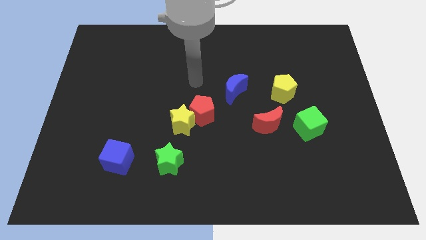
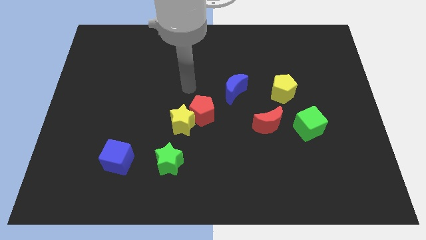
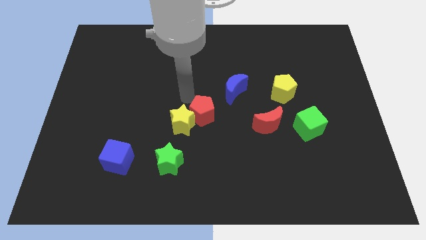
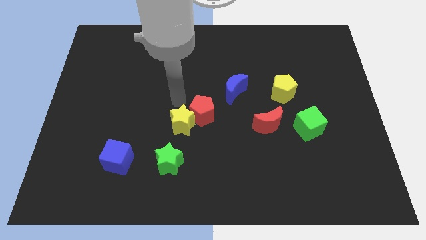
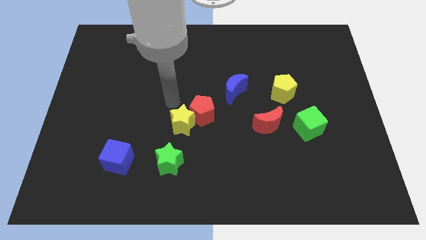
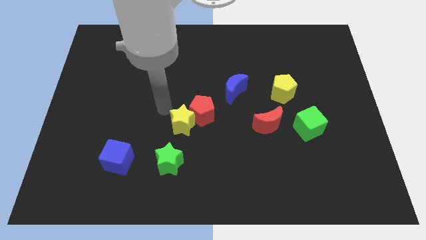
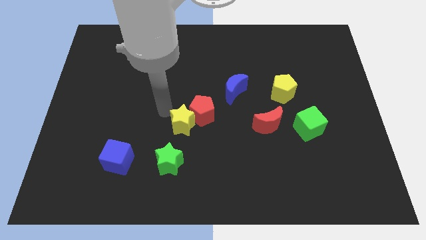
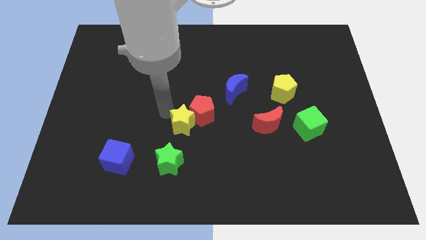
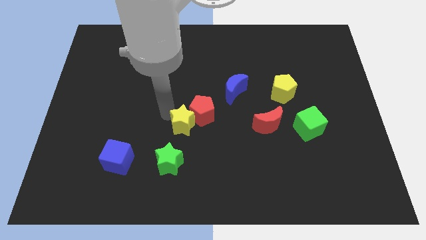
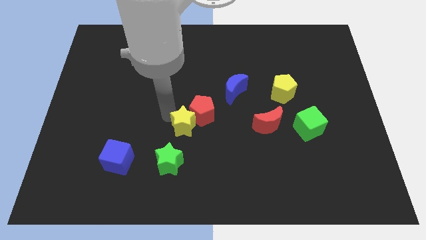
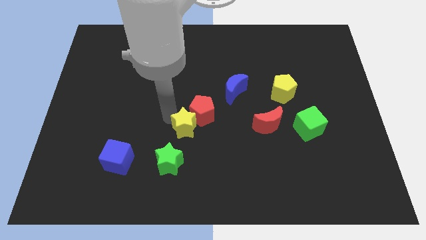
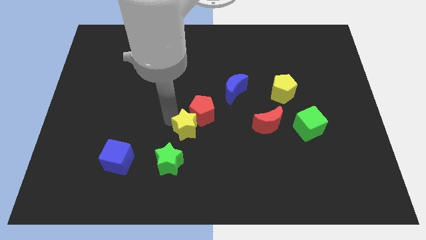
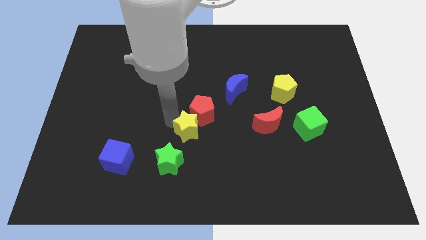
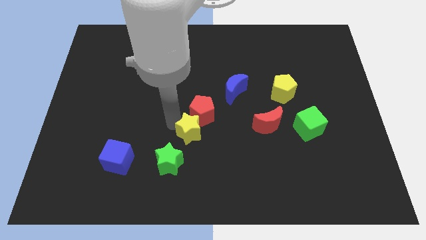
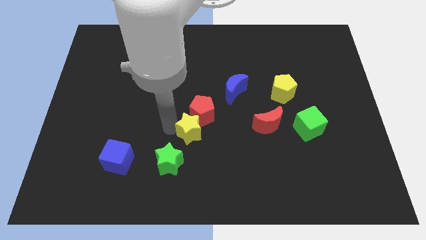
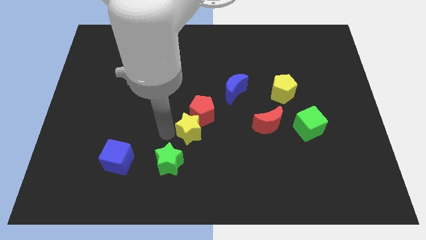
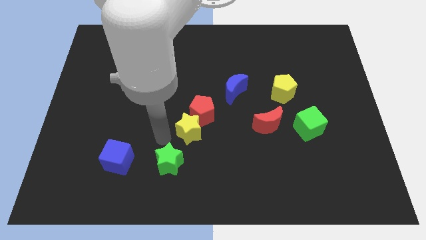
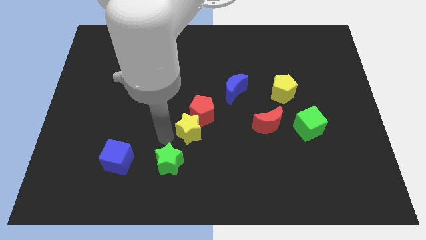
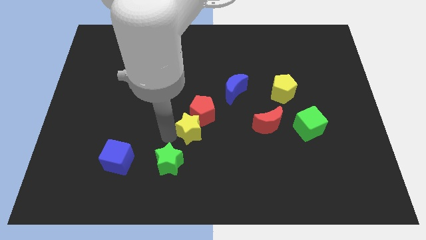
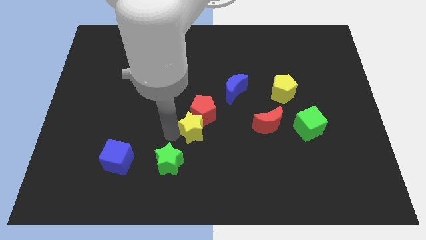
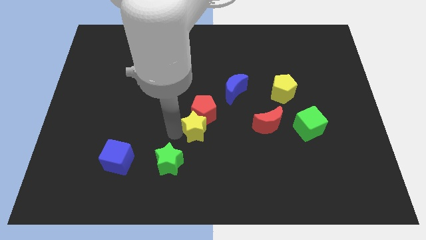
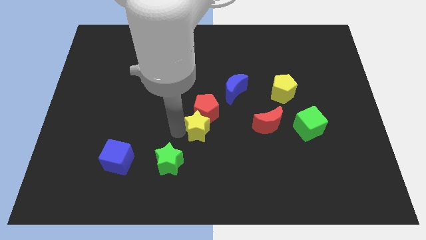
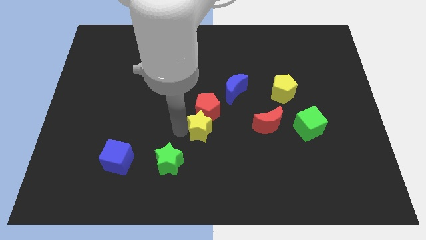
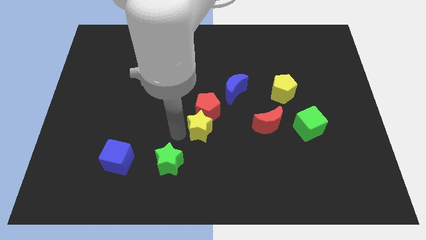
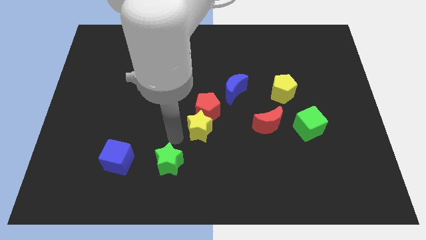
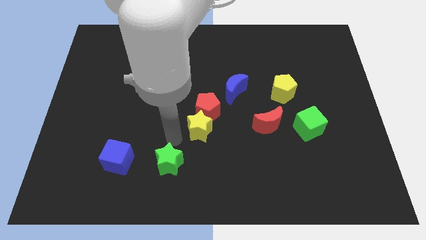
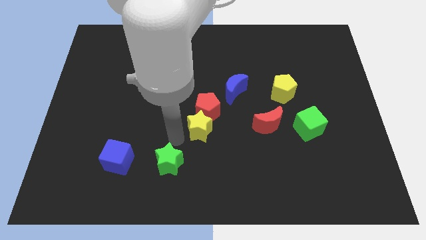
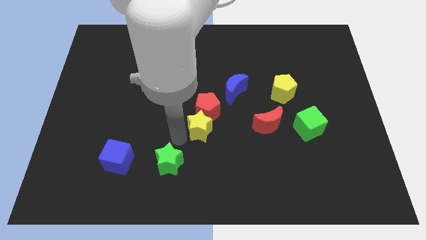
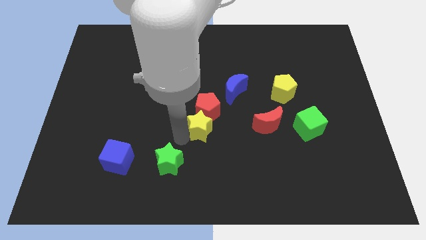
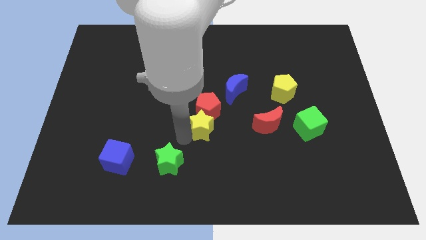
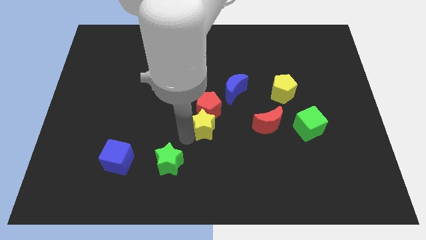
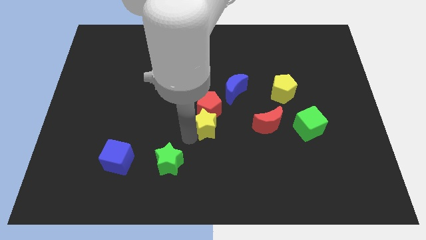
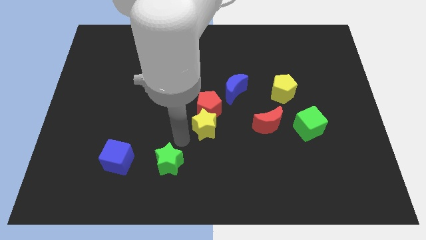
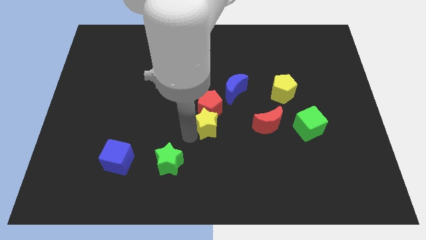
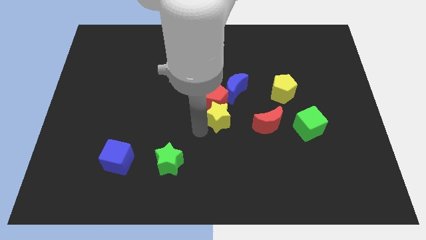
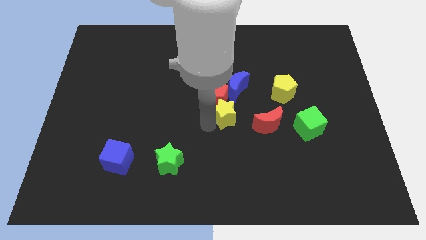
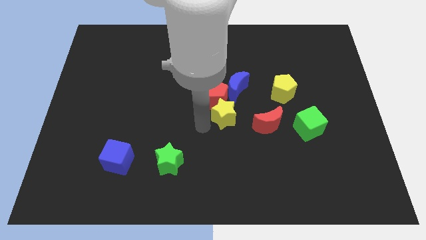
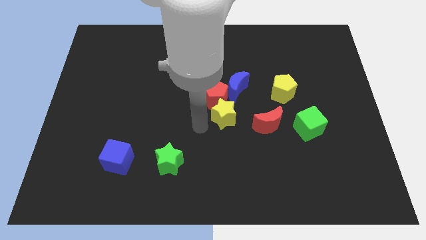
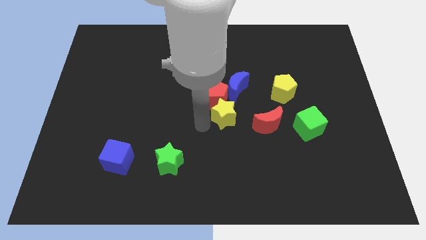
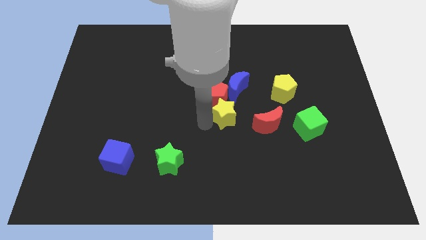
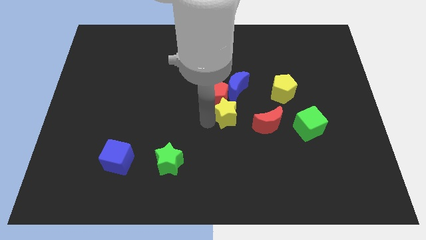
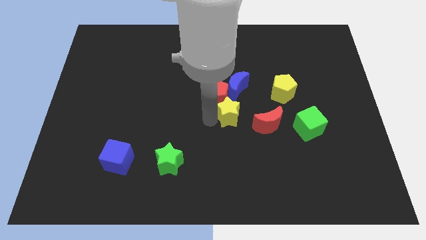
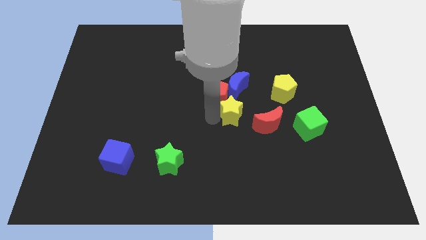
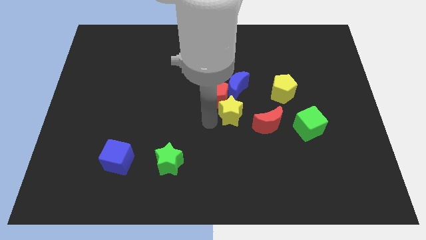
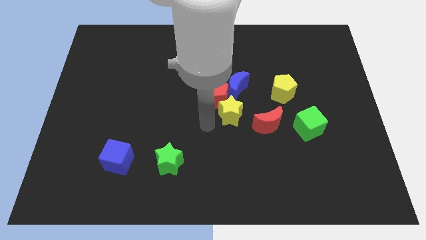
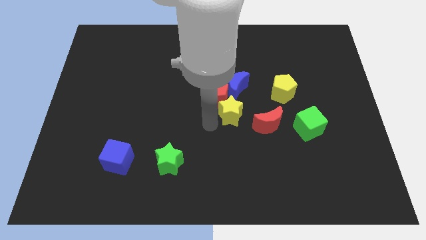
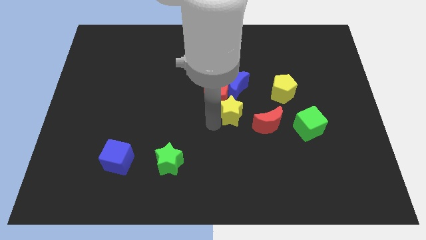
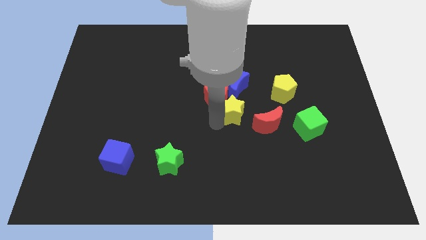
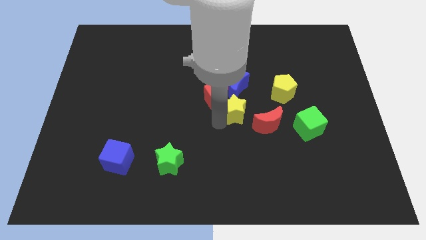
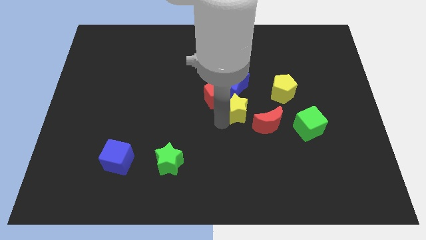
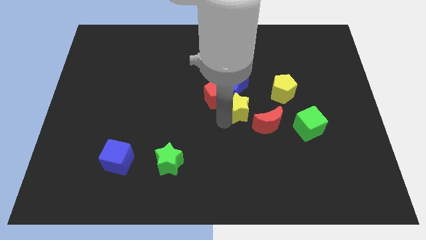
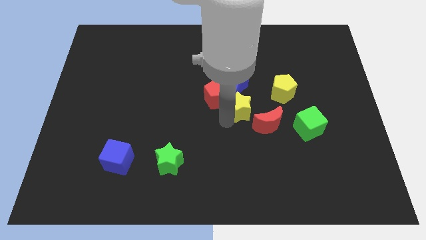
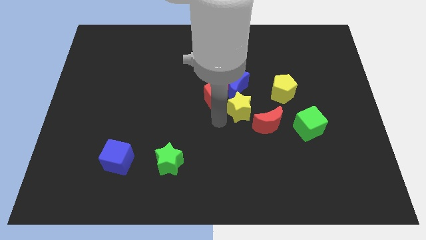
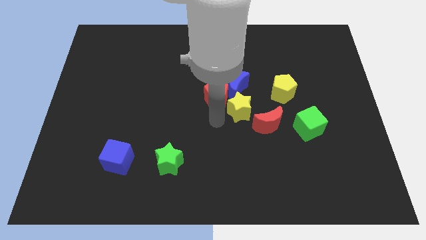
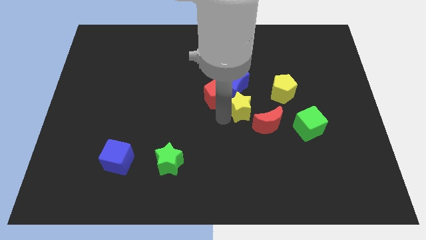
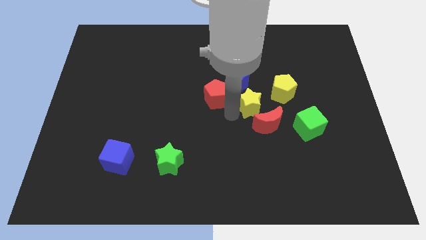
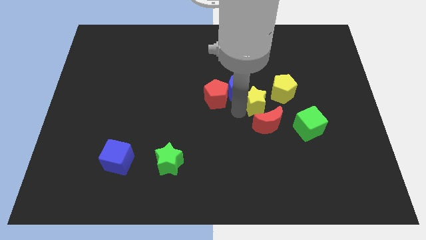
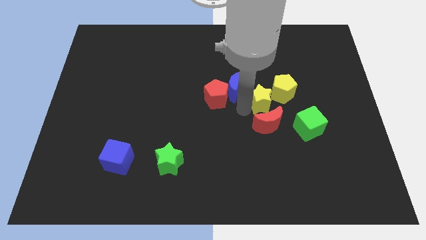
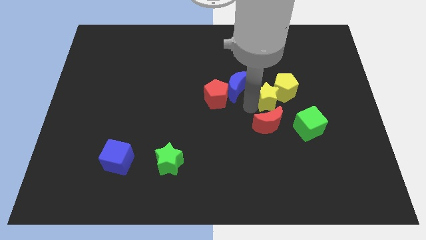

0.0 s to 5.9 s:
push the yellow star close to the yellow pentagon
